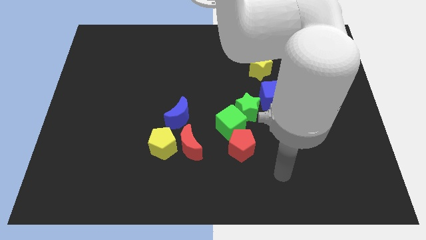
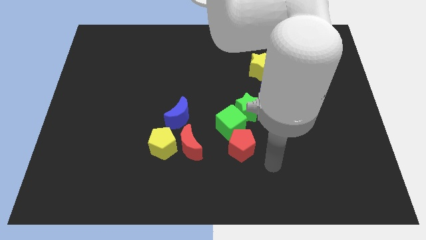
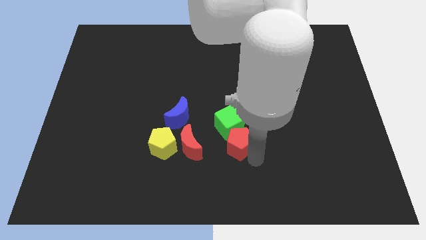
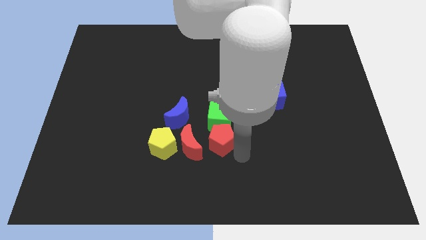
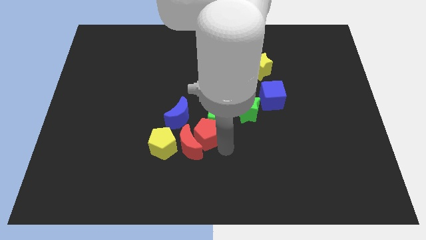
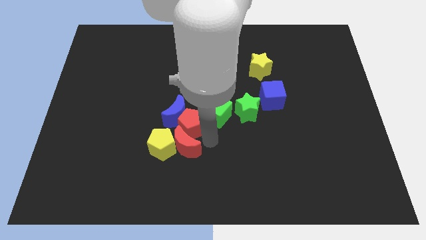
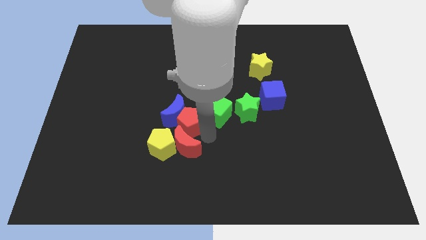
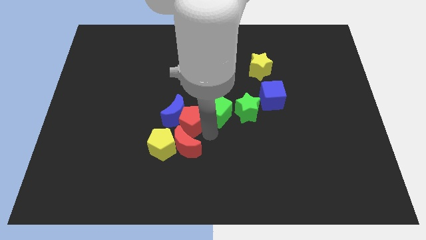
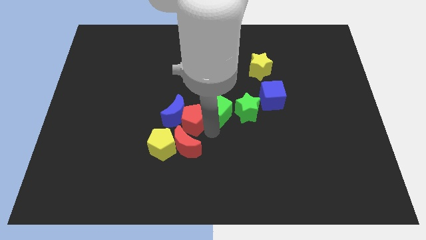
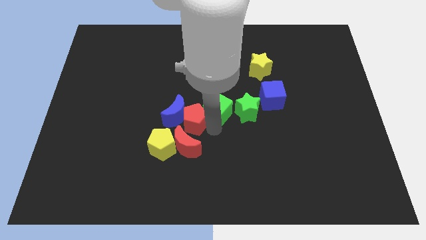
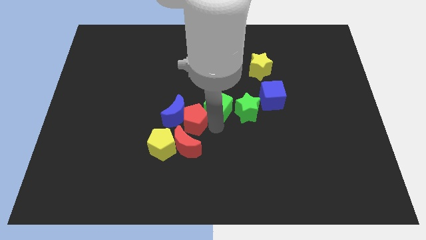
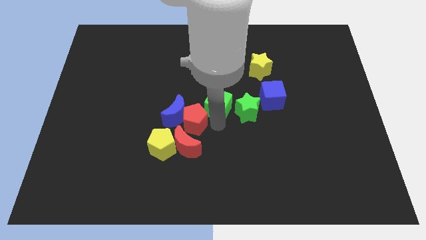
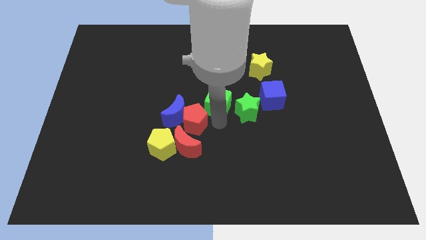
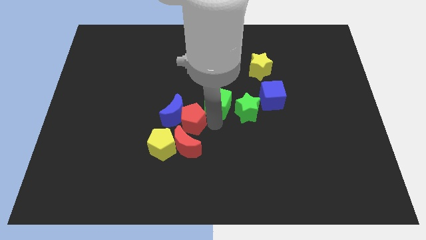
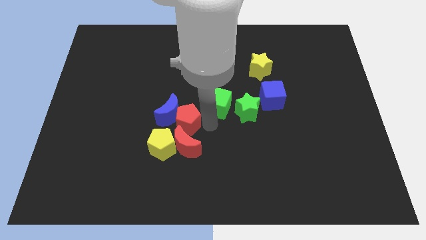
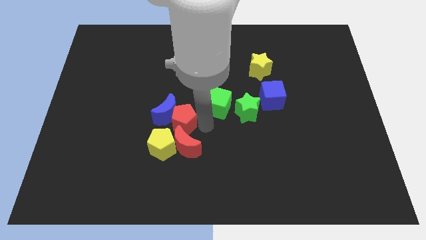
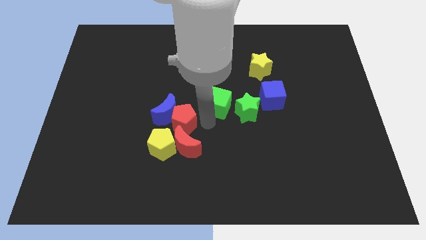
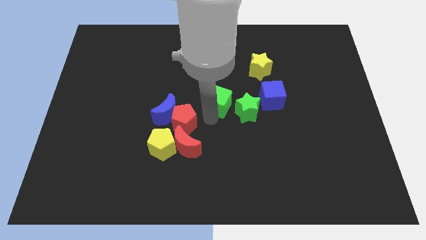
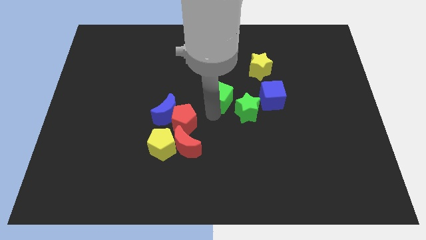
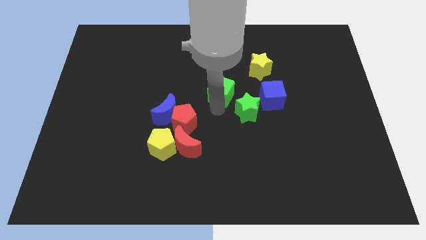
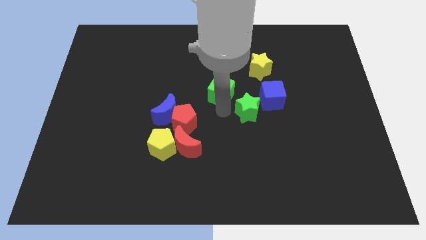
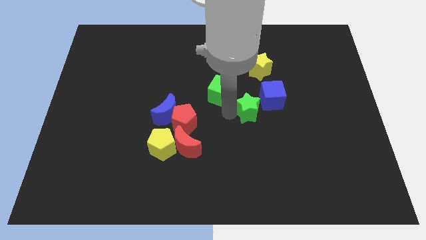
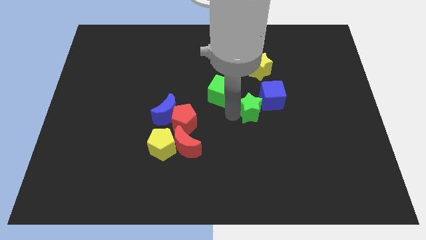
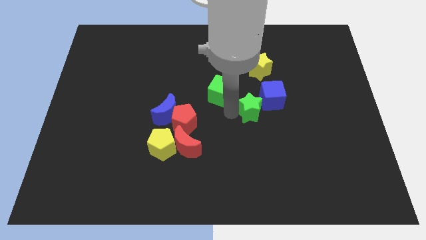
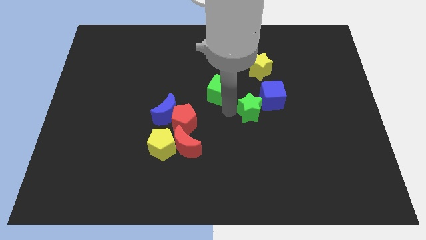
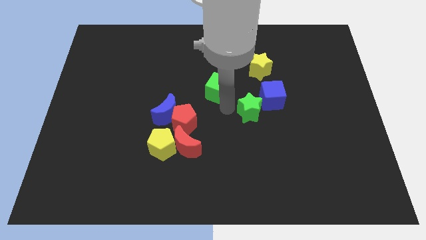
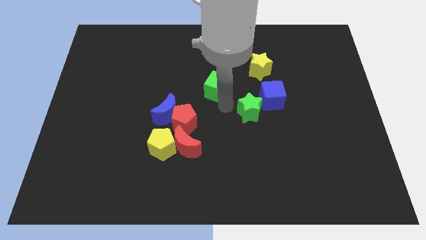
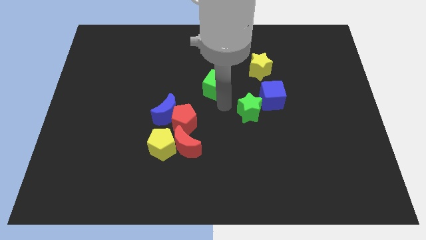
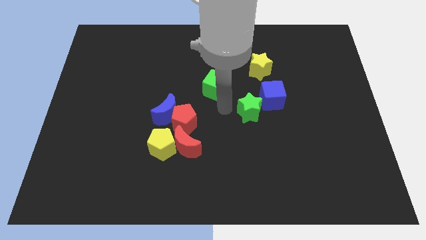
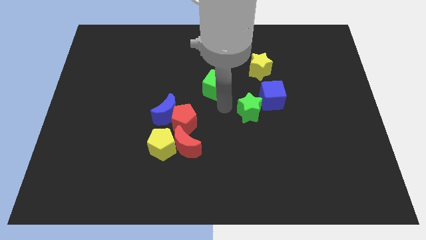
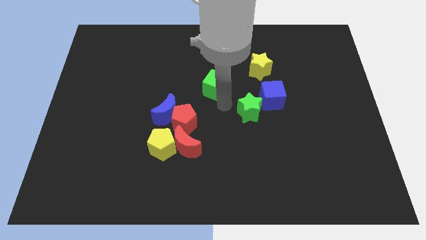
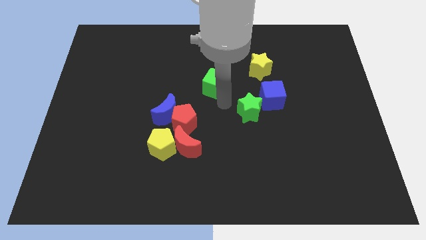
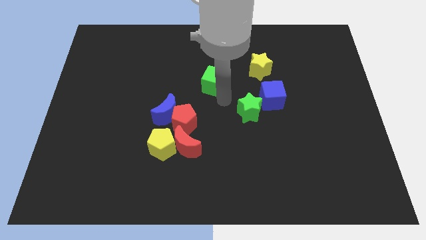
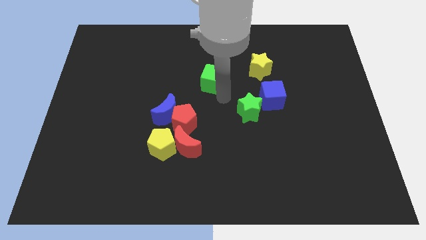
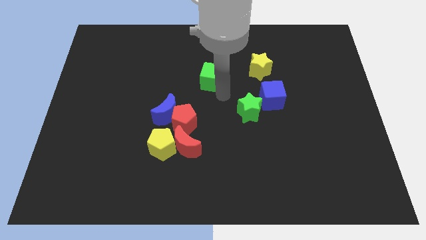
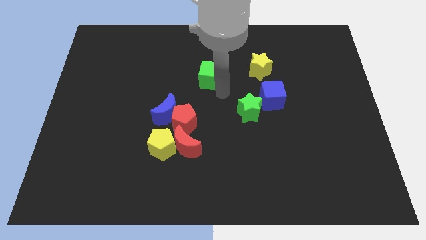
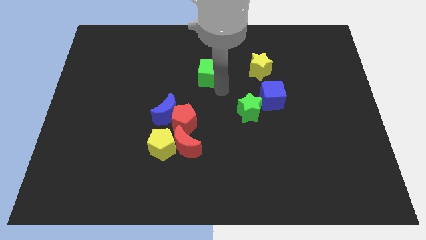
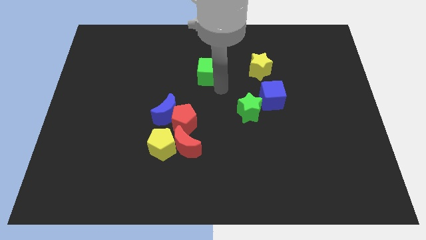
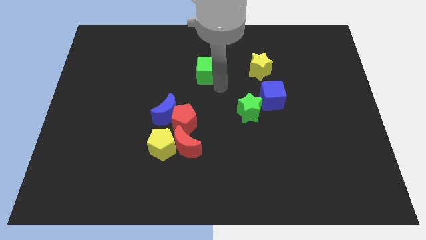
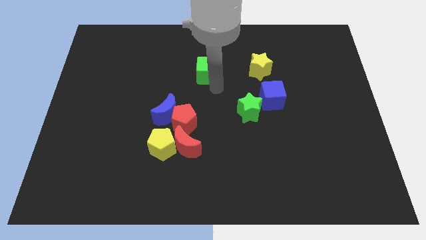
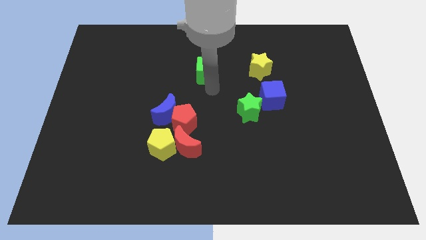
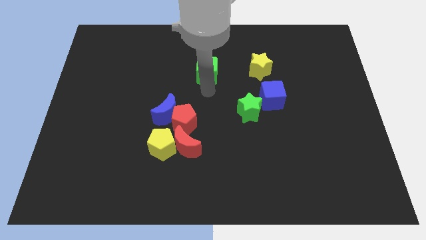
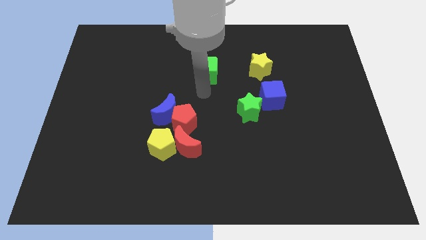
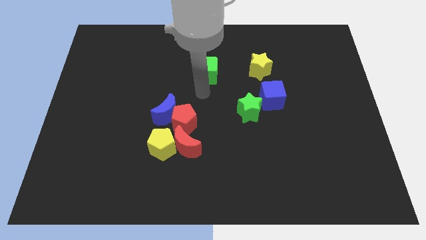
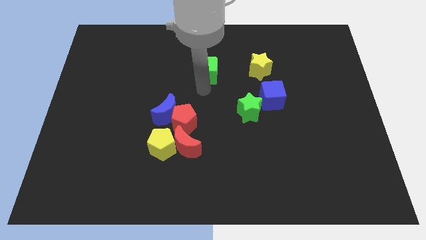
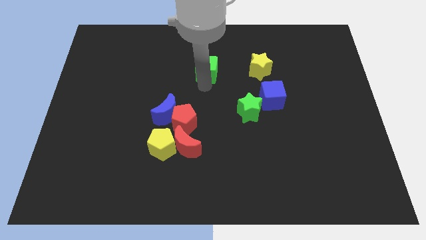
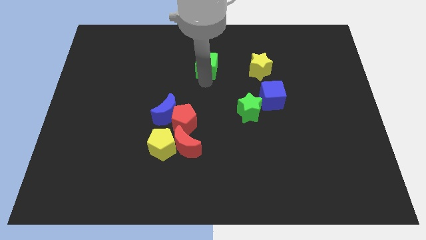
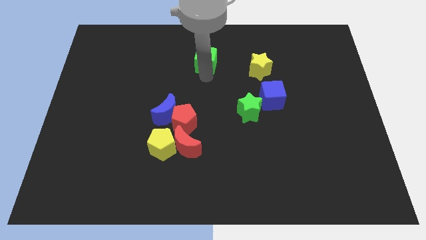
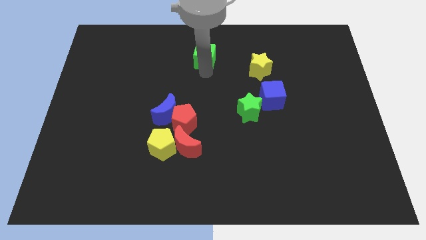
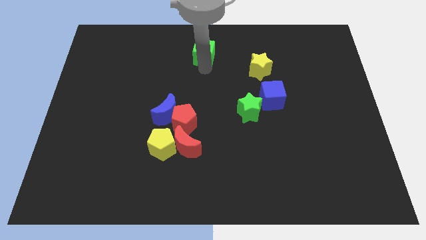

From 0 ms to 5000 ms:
slide the green cube to the top side

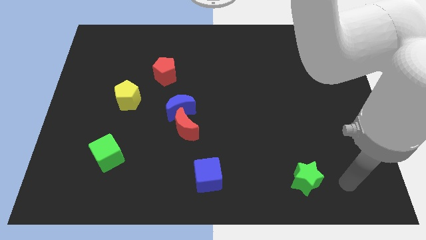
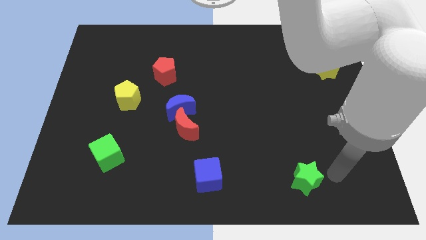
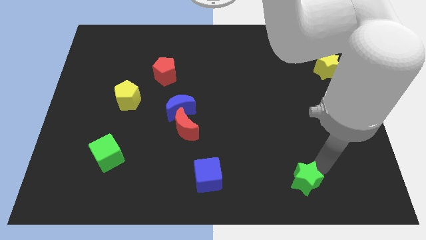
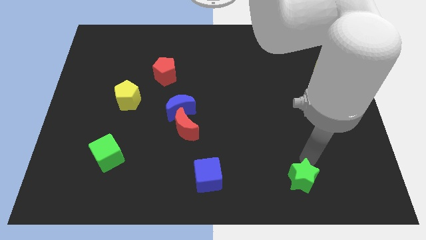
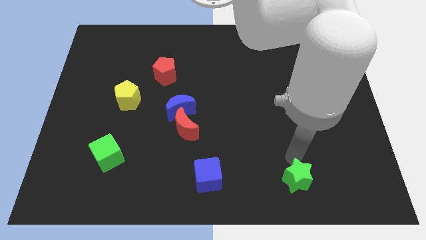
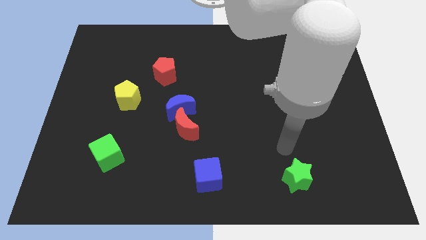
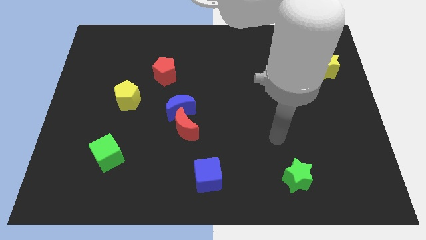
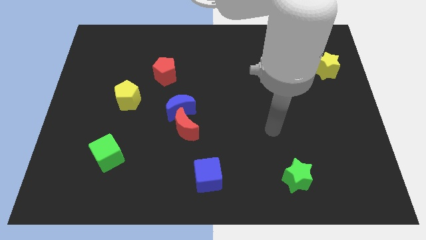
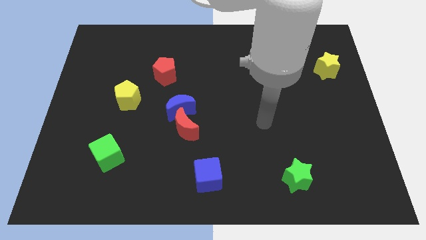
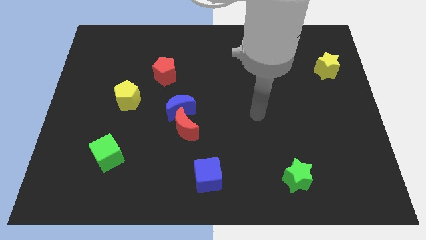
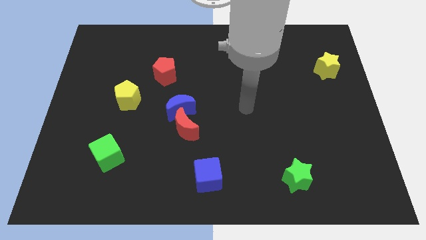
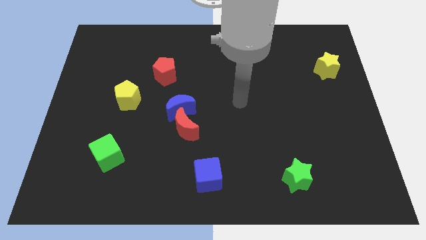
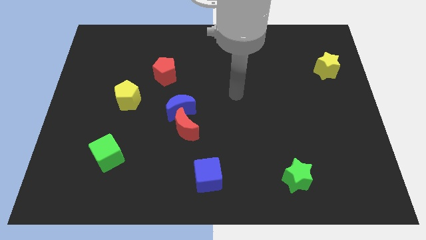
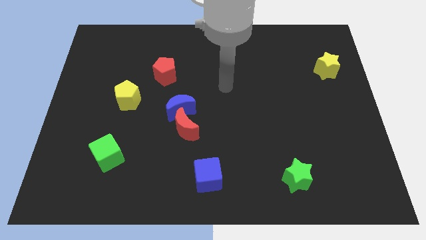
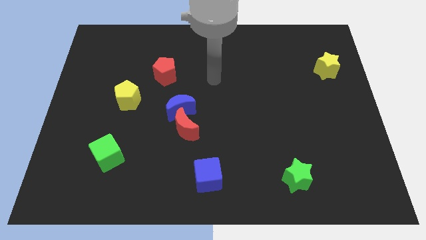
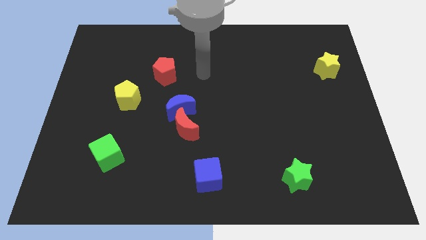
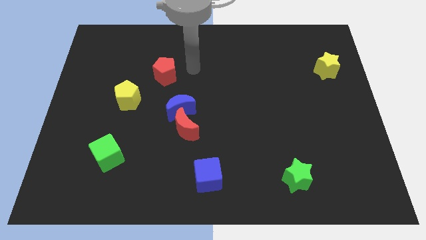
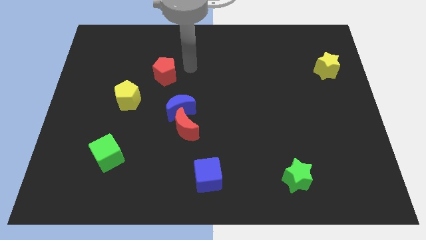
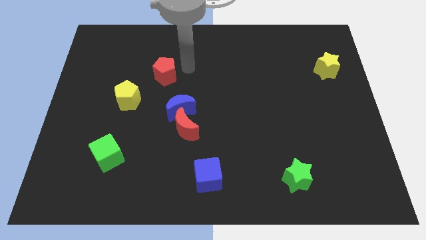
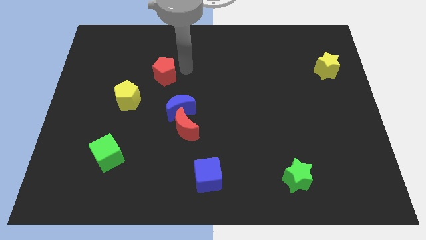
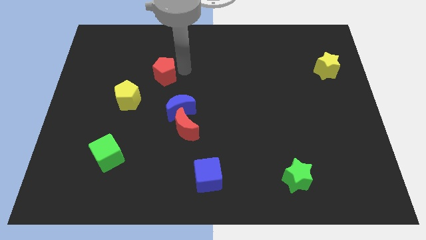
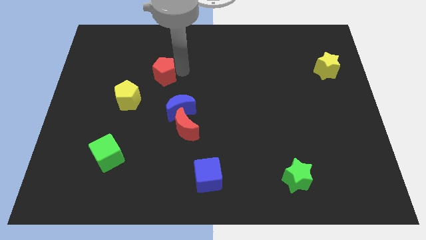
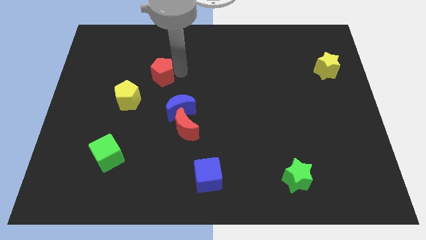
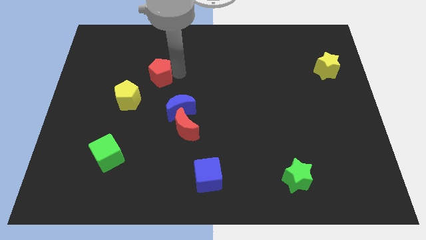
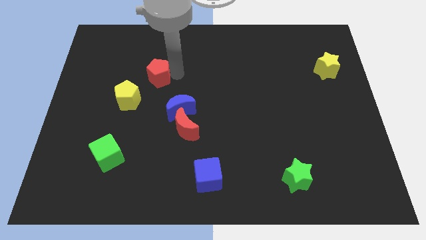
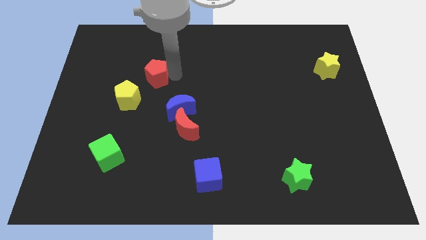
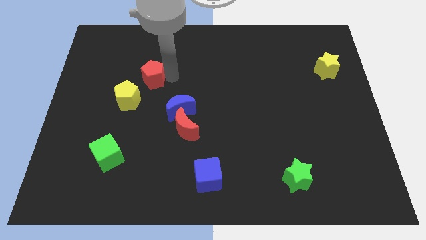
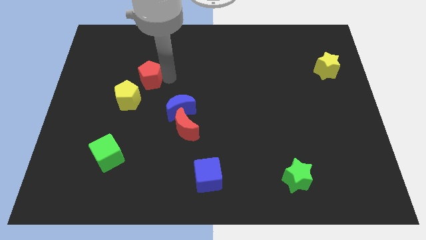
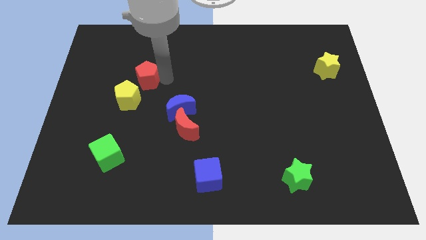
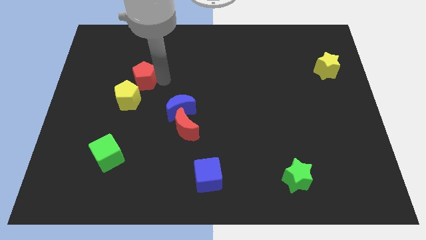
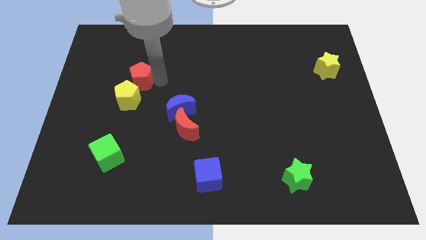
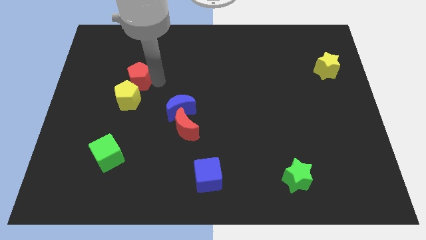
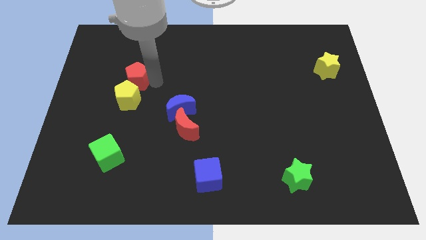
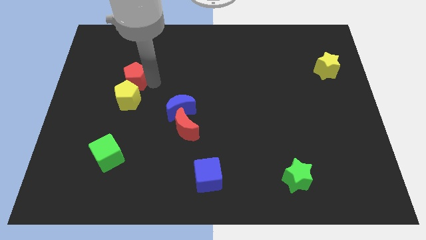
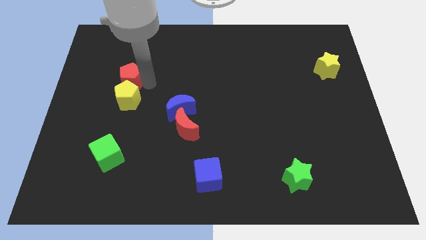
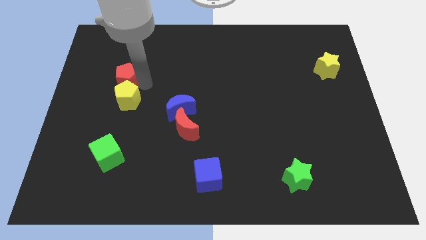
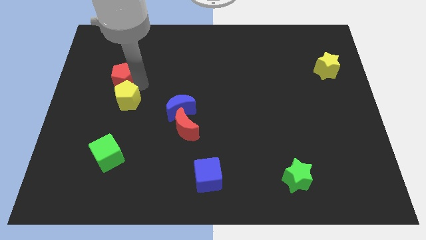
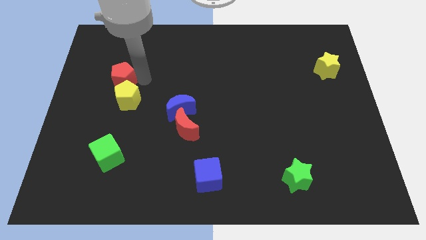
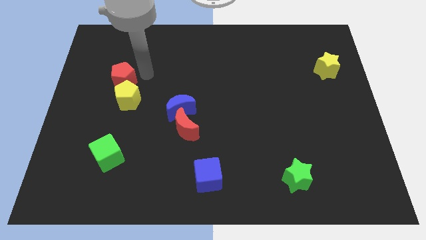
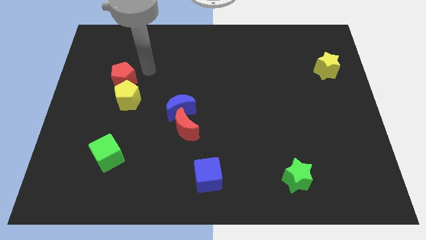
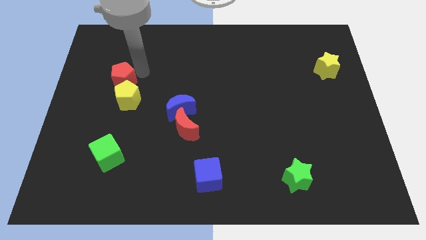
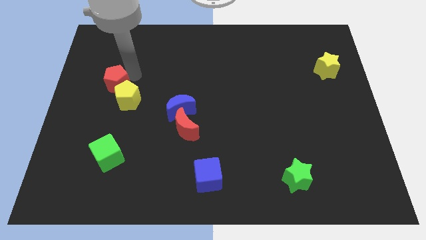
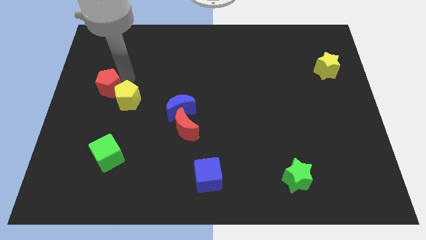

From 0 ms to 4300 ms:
slide the red pentagon to the left side
